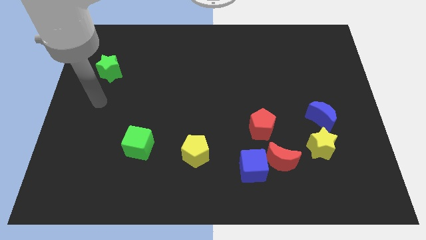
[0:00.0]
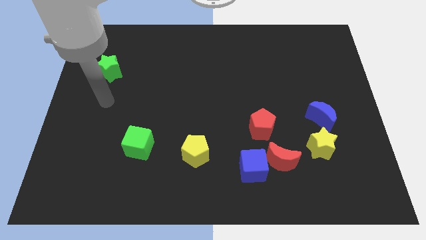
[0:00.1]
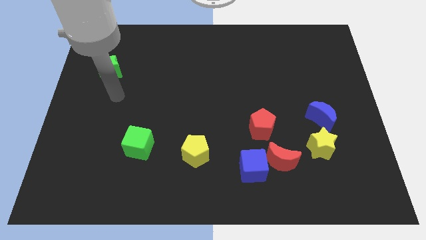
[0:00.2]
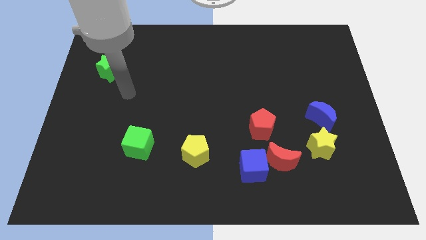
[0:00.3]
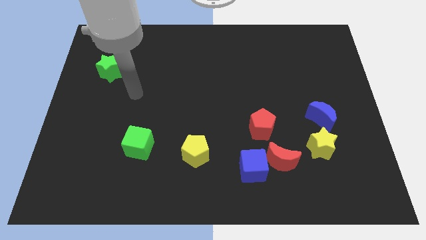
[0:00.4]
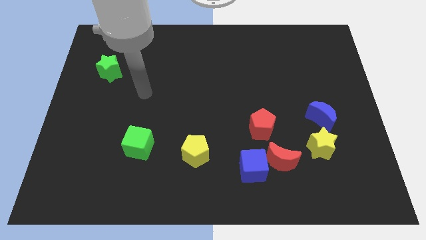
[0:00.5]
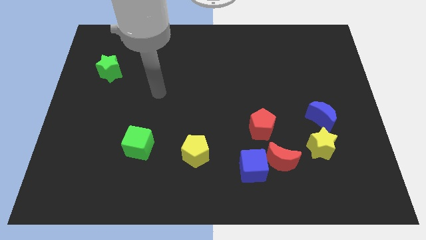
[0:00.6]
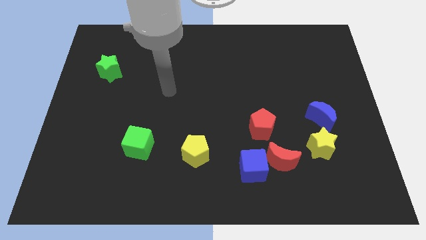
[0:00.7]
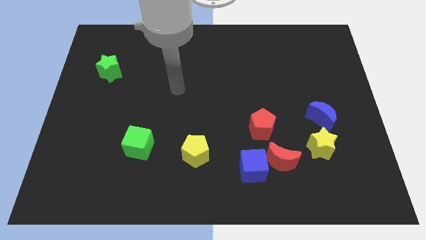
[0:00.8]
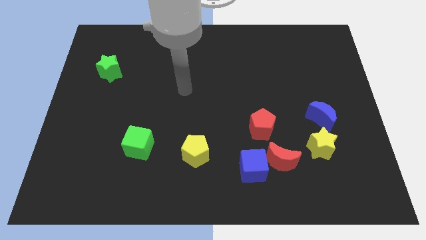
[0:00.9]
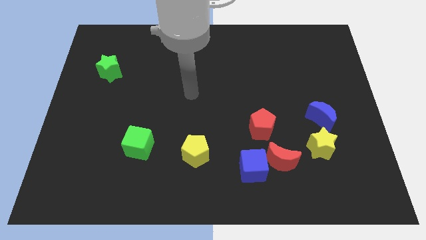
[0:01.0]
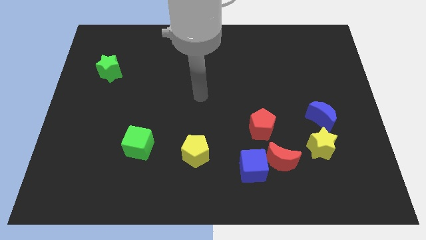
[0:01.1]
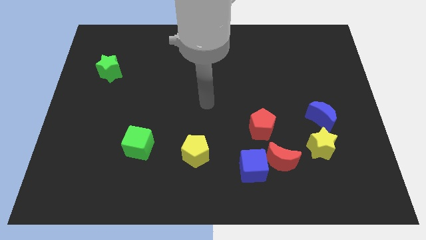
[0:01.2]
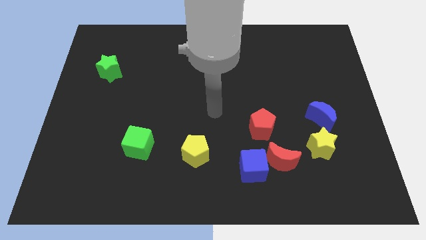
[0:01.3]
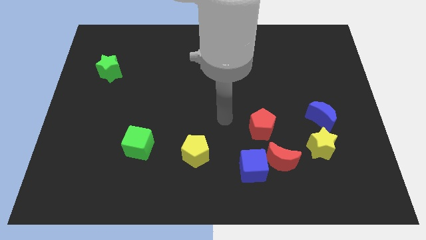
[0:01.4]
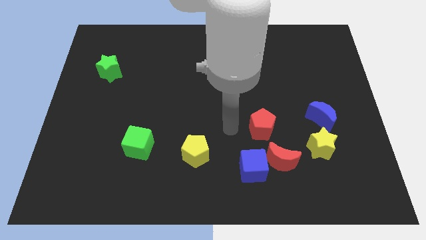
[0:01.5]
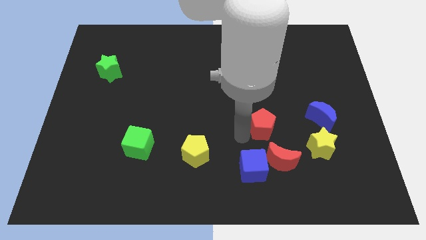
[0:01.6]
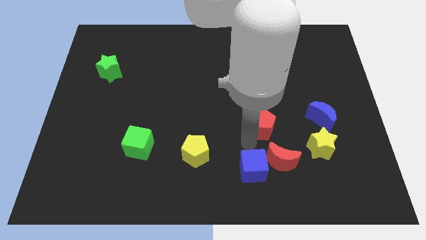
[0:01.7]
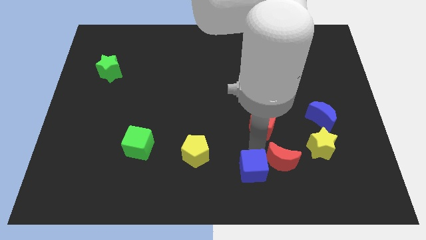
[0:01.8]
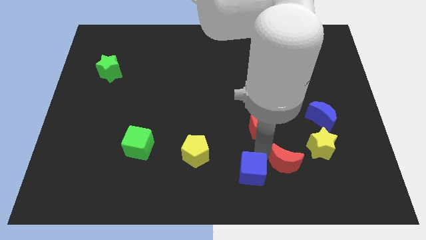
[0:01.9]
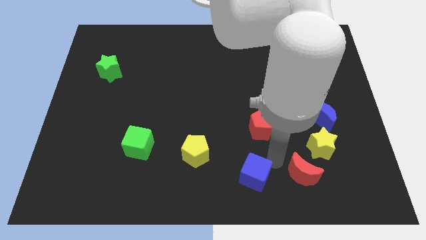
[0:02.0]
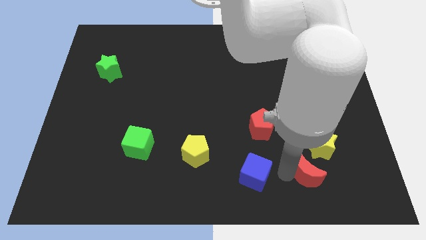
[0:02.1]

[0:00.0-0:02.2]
separate the blue cube from the red moon

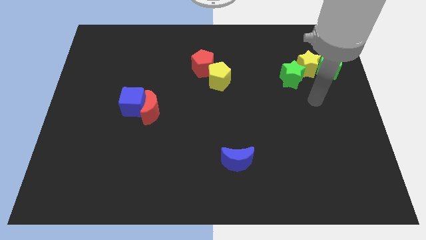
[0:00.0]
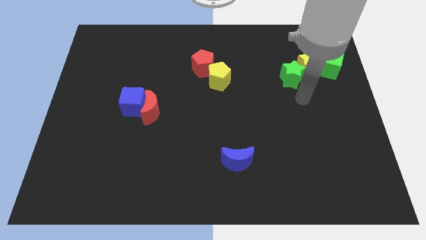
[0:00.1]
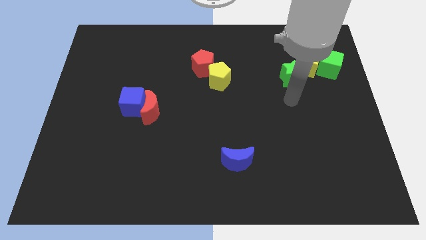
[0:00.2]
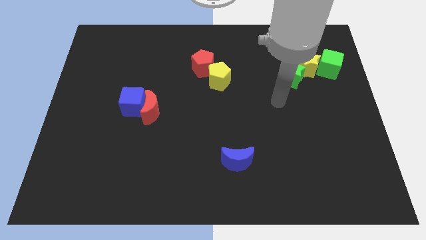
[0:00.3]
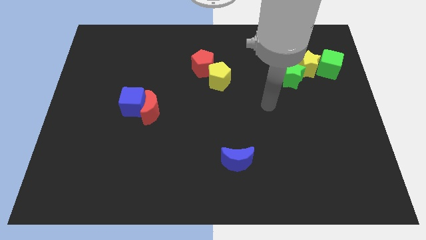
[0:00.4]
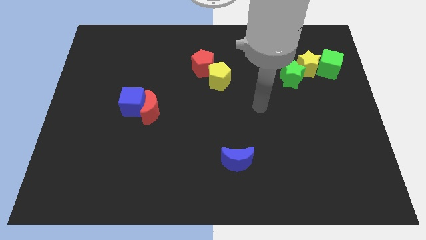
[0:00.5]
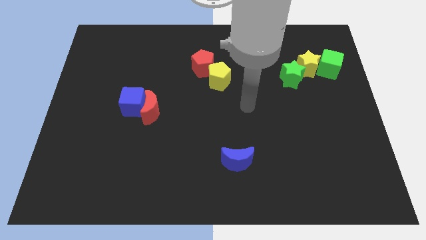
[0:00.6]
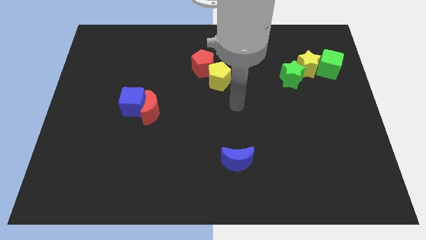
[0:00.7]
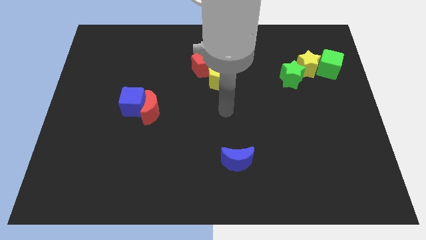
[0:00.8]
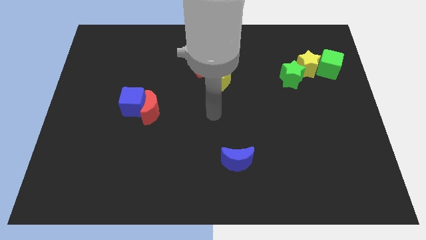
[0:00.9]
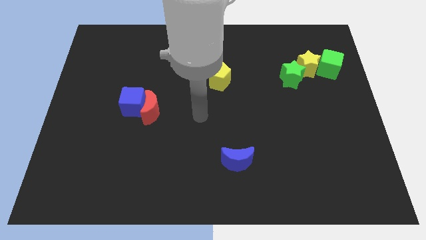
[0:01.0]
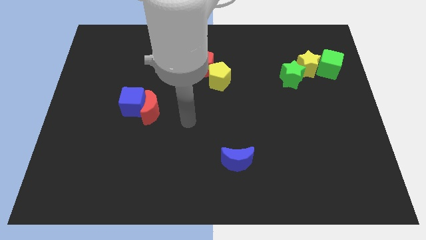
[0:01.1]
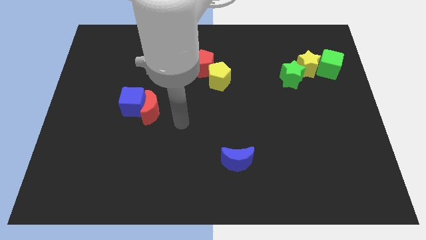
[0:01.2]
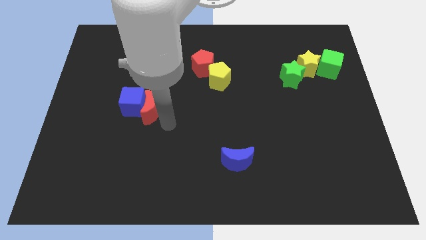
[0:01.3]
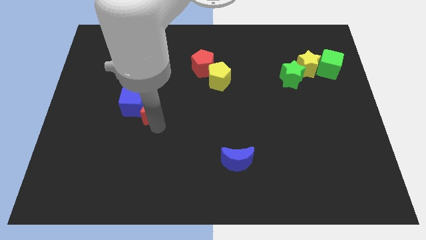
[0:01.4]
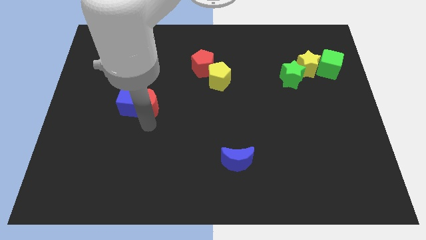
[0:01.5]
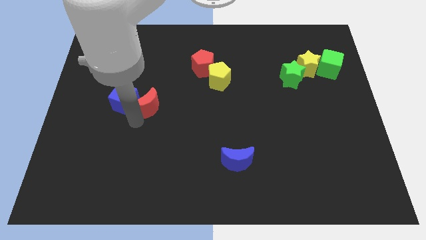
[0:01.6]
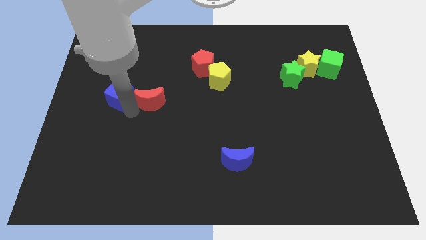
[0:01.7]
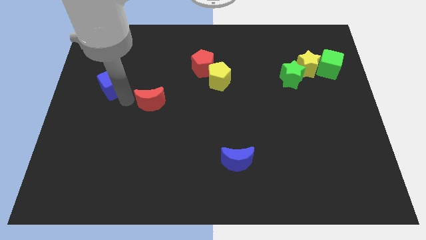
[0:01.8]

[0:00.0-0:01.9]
separate the red moon from the blue cube

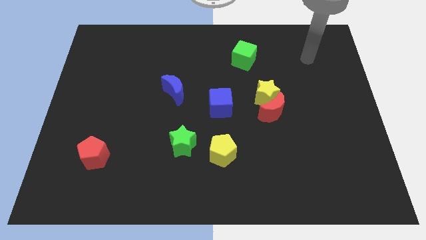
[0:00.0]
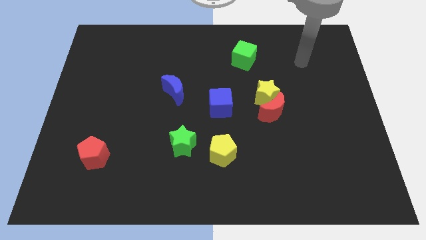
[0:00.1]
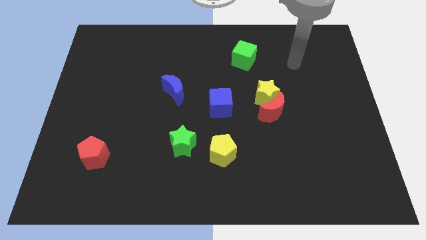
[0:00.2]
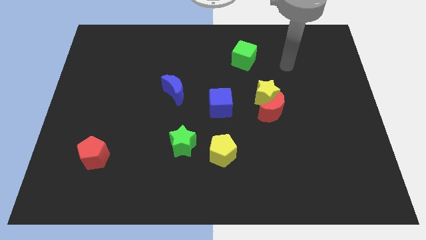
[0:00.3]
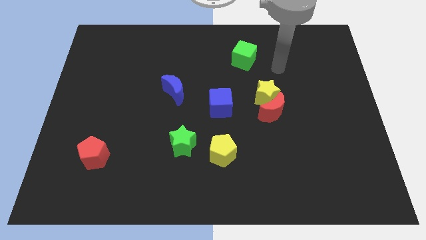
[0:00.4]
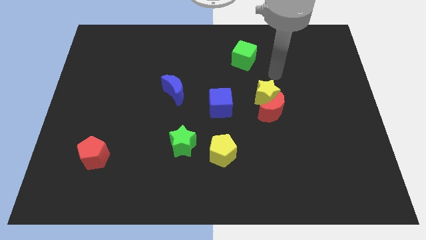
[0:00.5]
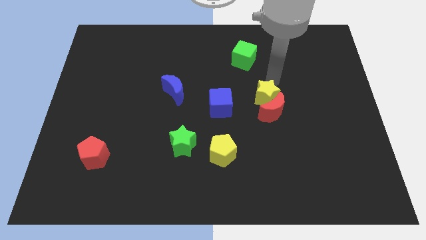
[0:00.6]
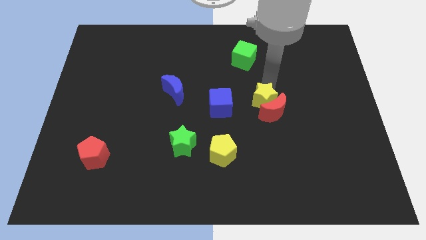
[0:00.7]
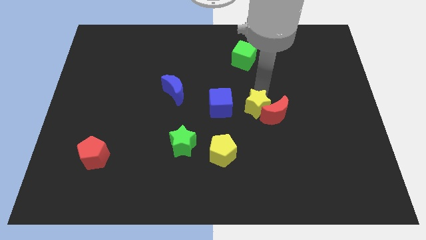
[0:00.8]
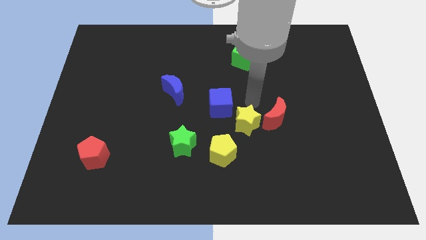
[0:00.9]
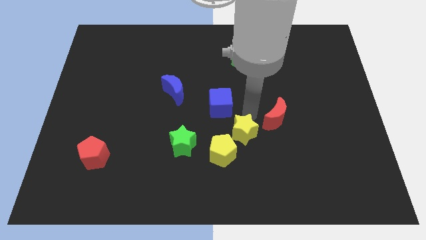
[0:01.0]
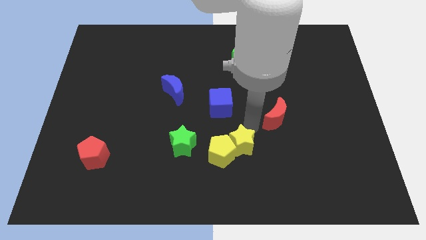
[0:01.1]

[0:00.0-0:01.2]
pull the red moon apart from the yellow star

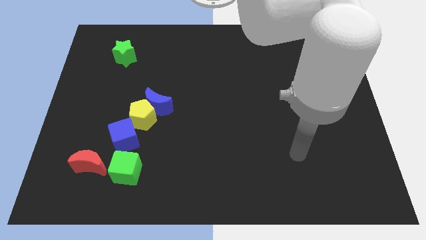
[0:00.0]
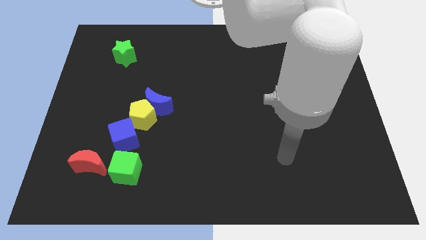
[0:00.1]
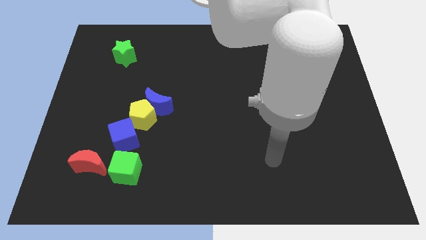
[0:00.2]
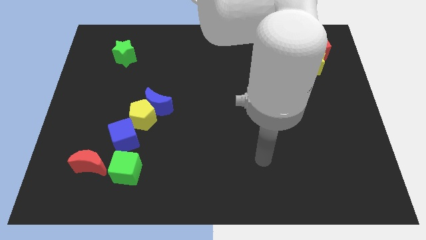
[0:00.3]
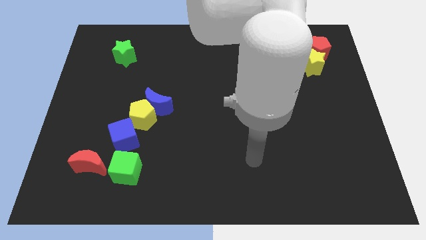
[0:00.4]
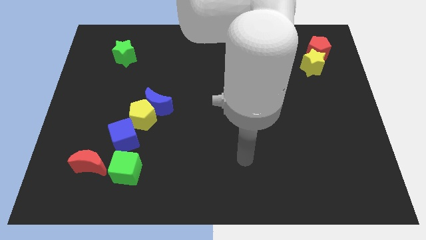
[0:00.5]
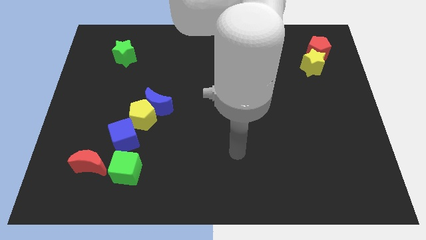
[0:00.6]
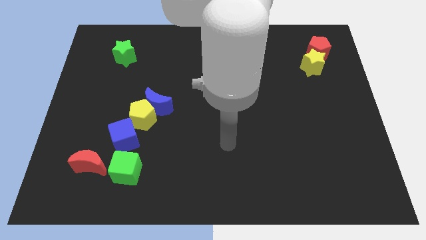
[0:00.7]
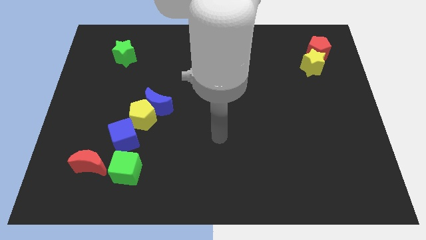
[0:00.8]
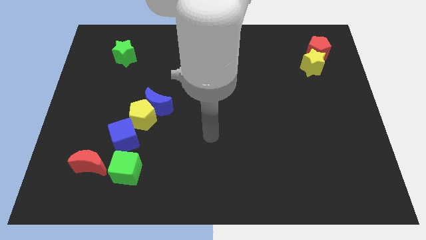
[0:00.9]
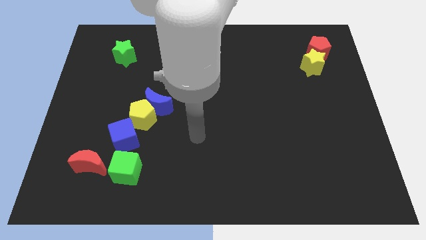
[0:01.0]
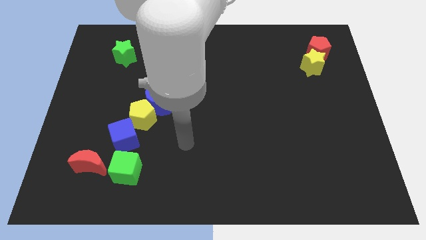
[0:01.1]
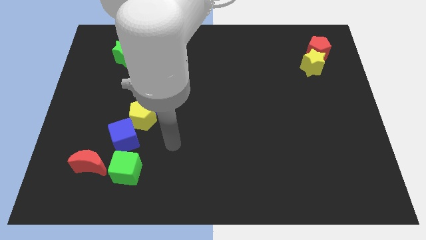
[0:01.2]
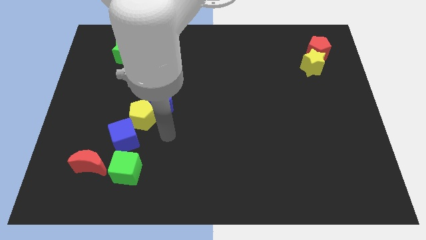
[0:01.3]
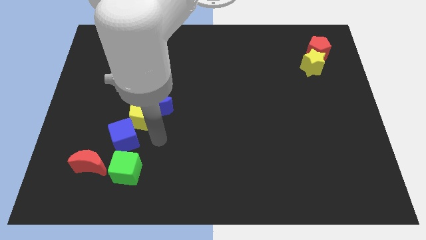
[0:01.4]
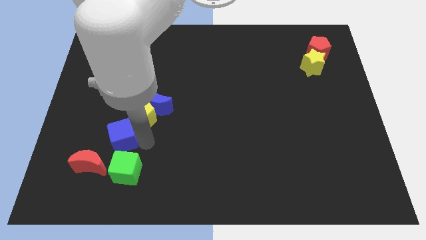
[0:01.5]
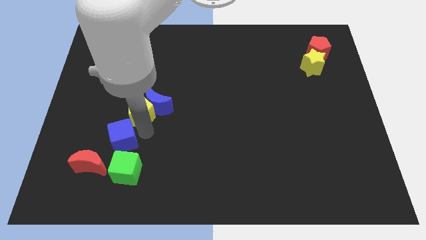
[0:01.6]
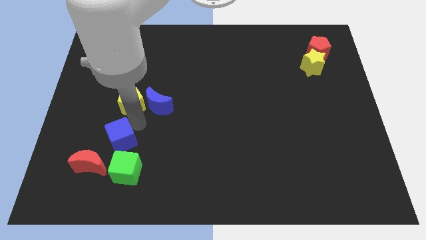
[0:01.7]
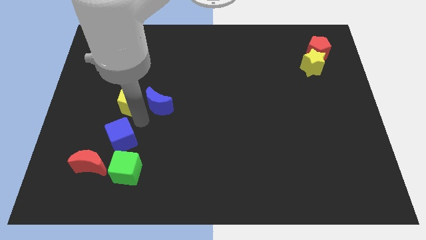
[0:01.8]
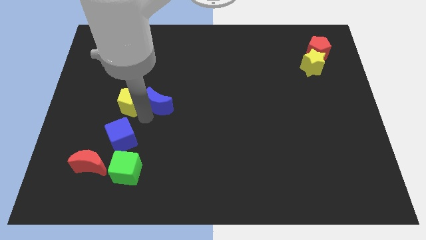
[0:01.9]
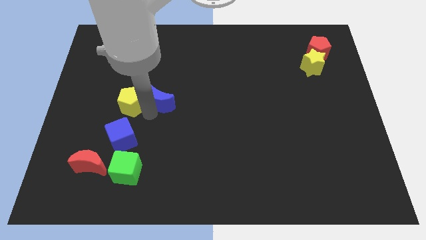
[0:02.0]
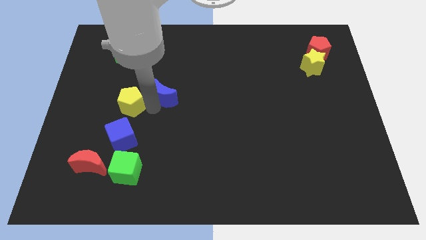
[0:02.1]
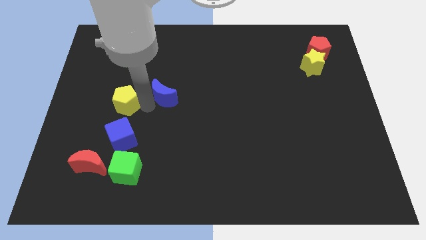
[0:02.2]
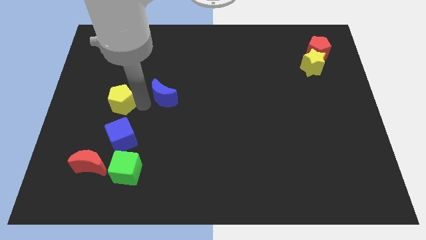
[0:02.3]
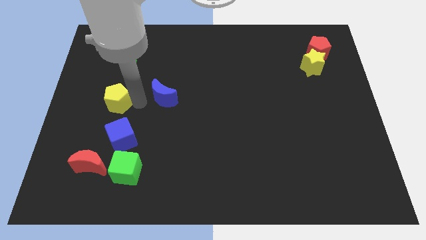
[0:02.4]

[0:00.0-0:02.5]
pull the blue moon apart from the yellow pentagon

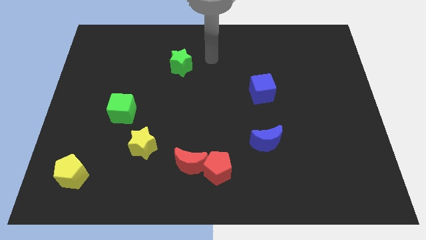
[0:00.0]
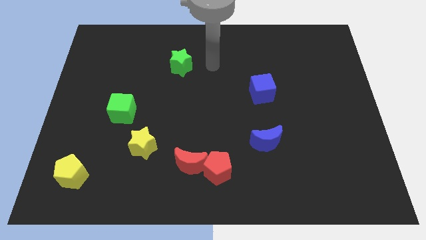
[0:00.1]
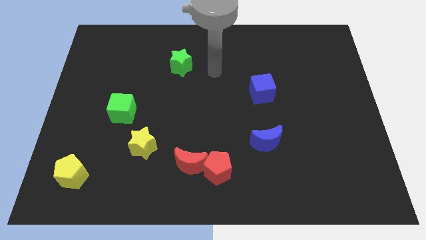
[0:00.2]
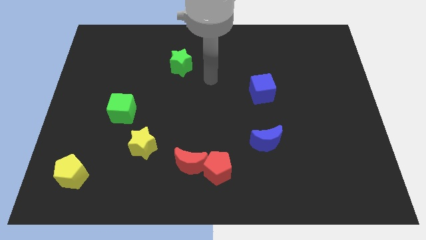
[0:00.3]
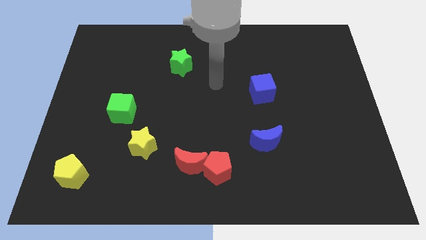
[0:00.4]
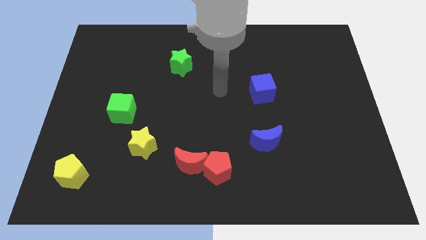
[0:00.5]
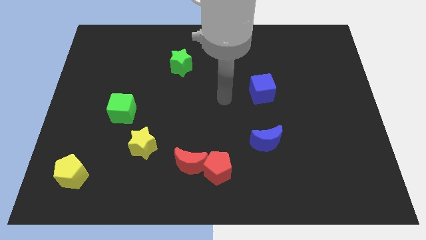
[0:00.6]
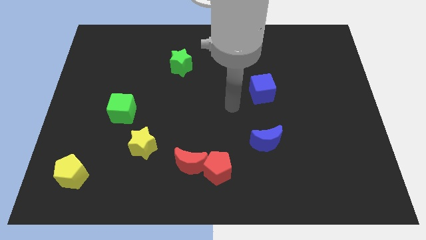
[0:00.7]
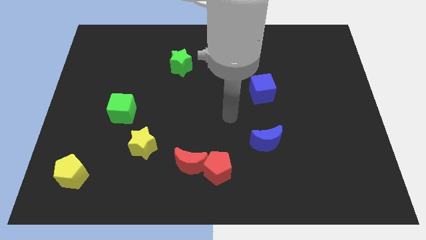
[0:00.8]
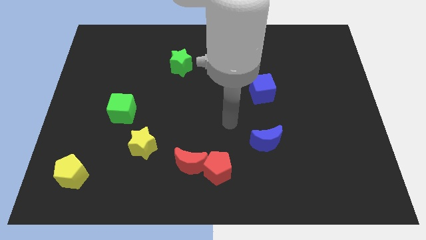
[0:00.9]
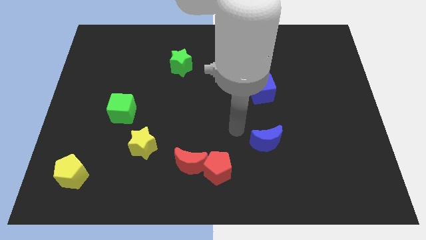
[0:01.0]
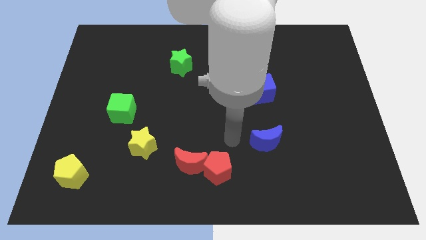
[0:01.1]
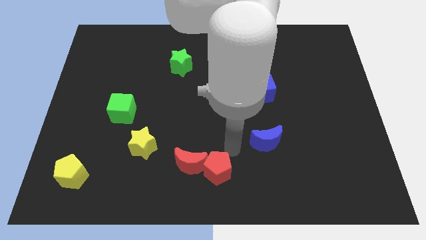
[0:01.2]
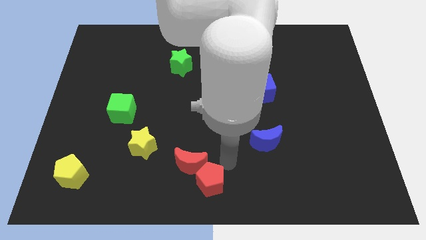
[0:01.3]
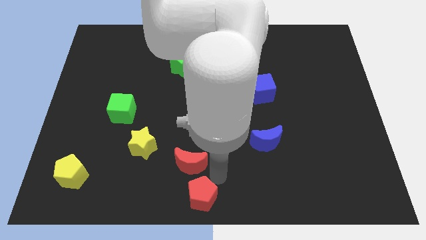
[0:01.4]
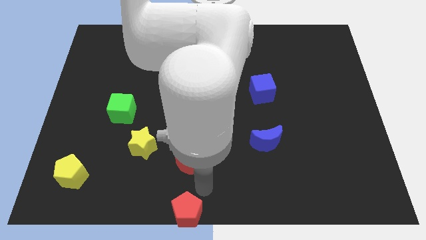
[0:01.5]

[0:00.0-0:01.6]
pull the red moon apart from the red pentagon
